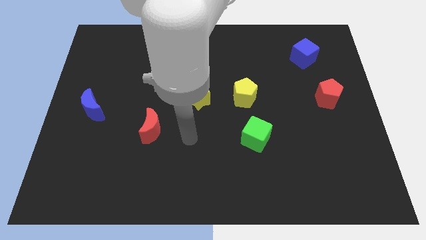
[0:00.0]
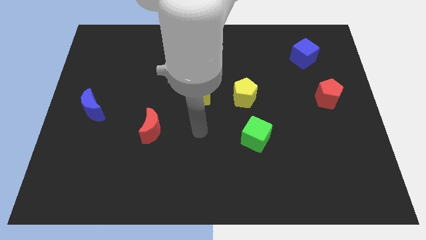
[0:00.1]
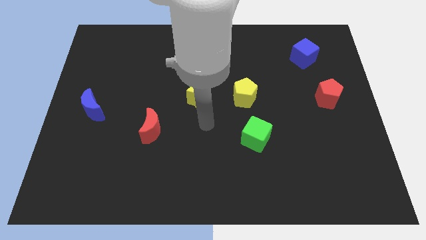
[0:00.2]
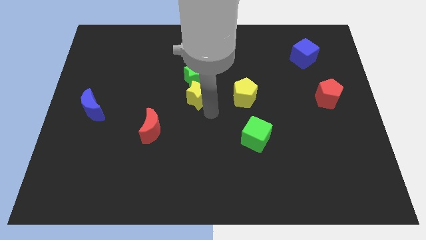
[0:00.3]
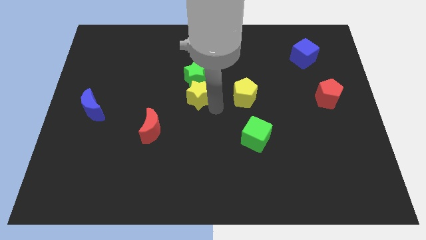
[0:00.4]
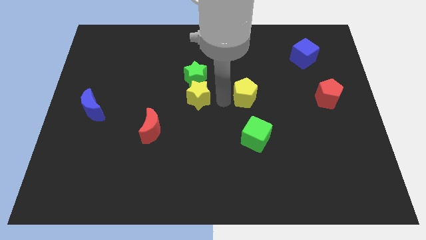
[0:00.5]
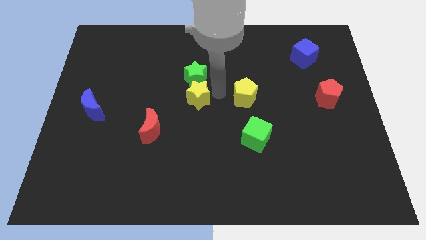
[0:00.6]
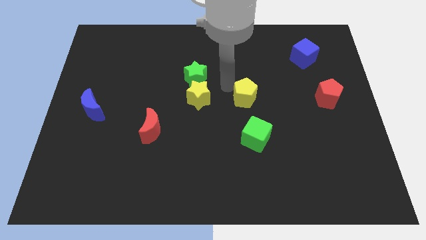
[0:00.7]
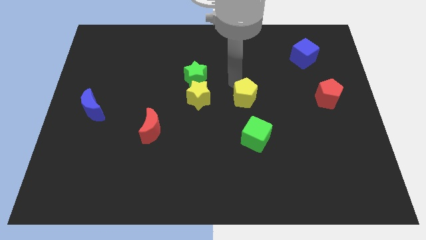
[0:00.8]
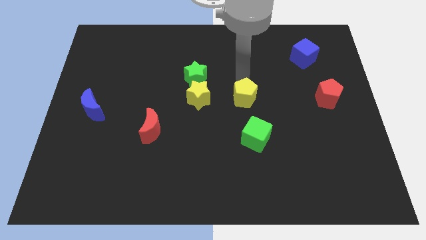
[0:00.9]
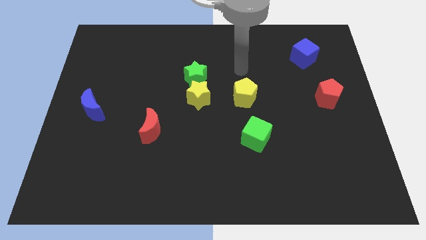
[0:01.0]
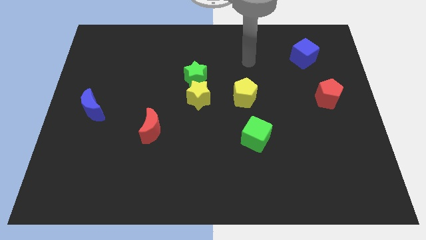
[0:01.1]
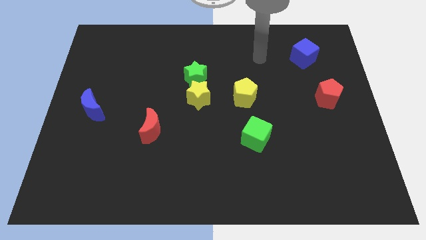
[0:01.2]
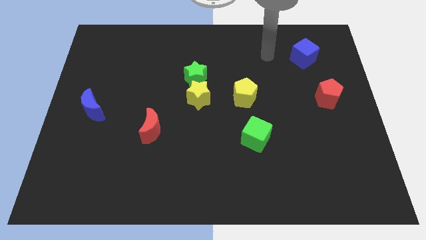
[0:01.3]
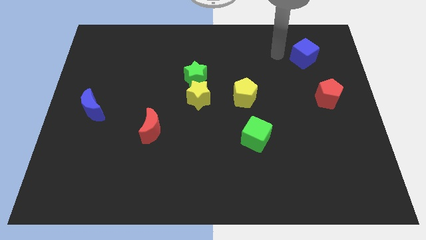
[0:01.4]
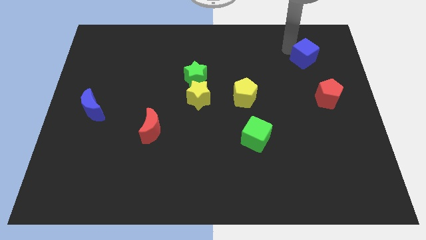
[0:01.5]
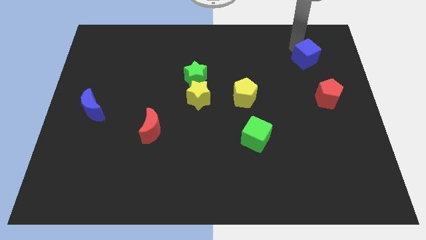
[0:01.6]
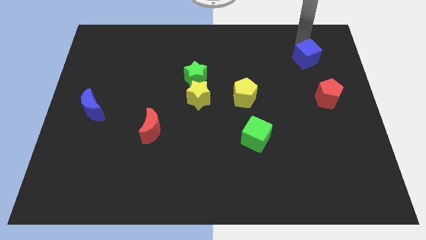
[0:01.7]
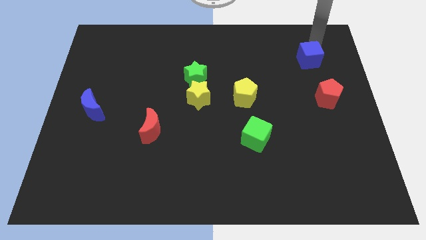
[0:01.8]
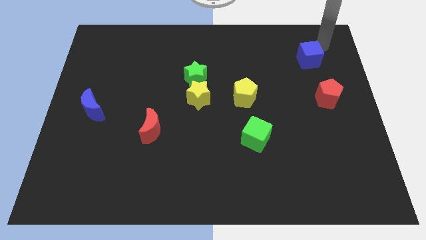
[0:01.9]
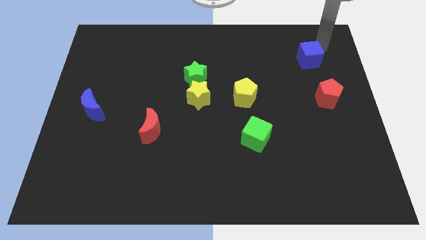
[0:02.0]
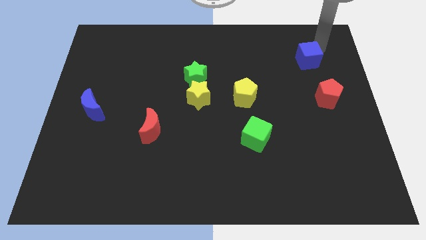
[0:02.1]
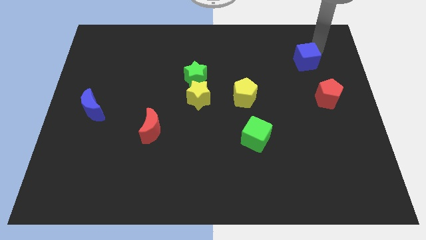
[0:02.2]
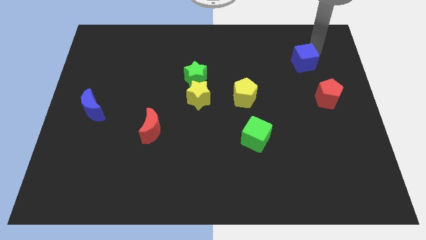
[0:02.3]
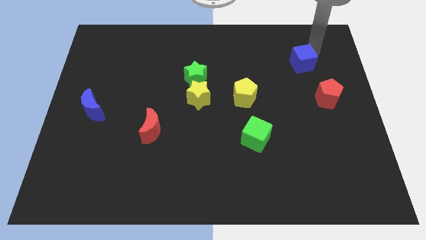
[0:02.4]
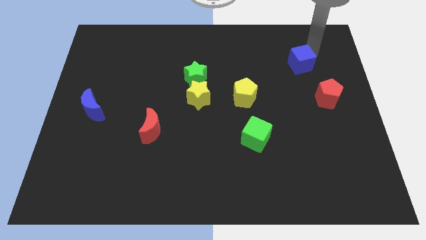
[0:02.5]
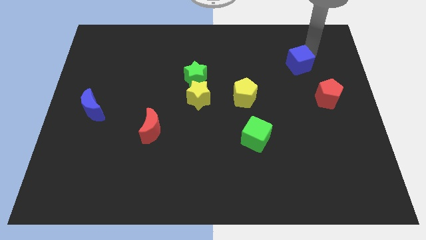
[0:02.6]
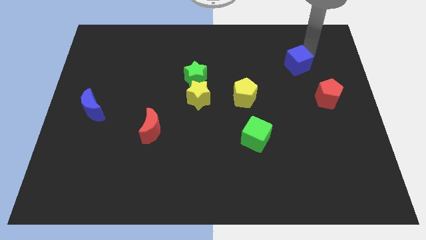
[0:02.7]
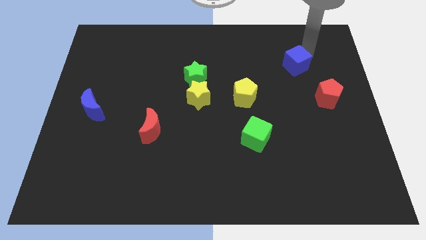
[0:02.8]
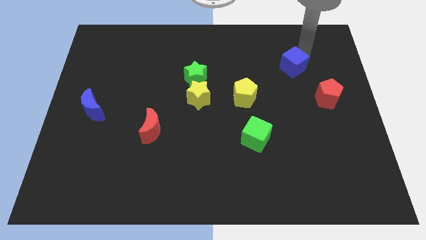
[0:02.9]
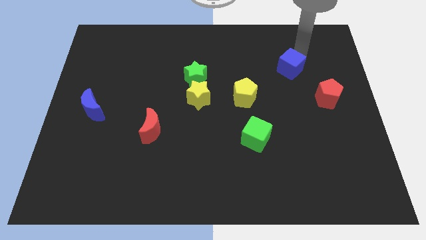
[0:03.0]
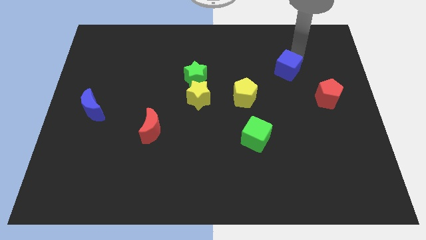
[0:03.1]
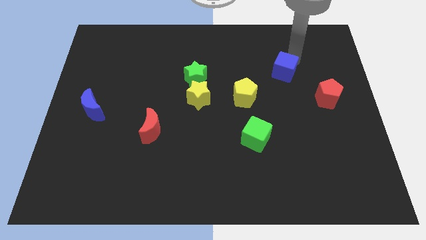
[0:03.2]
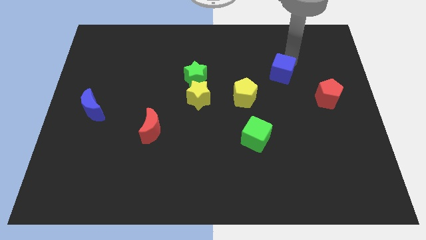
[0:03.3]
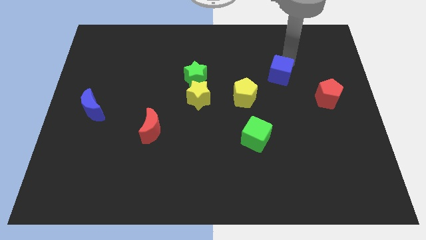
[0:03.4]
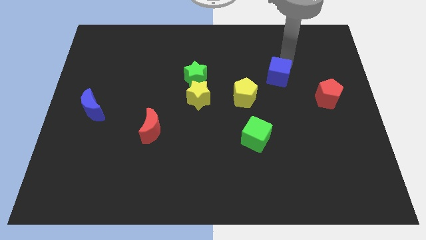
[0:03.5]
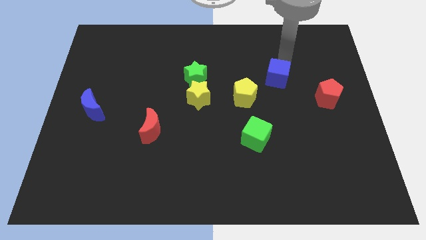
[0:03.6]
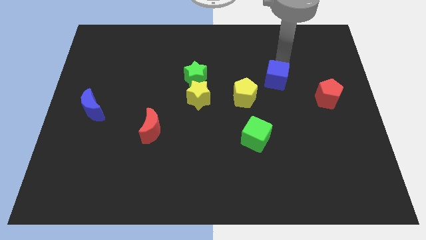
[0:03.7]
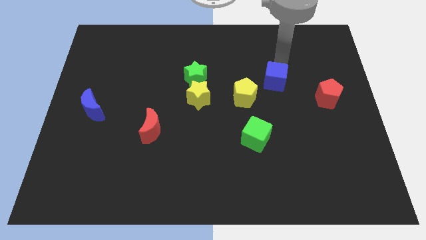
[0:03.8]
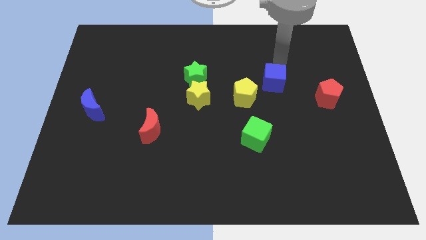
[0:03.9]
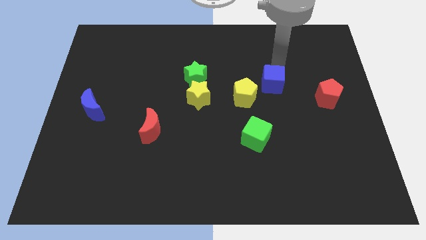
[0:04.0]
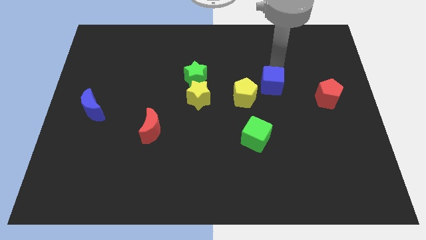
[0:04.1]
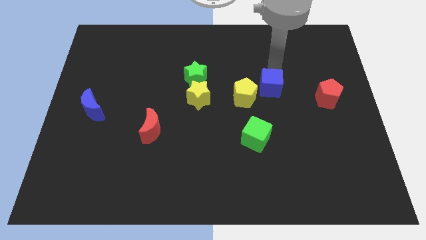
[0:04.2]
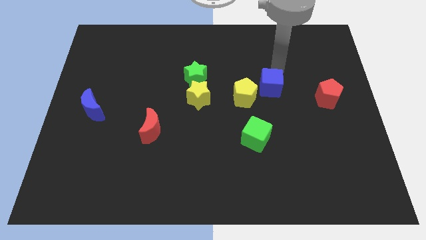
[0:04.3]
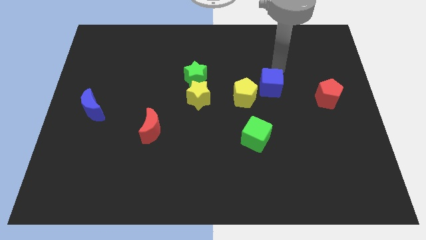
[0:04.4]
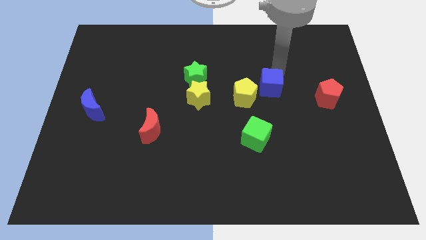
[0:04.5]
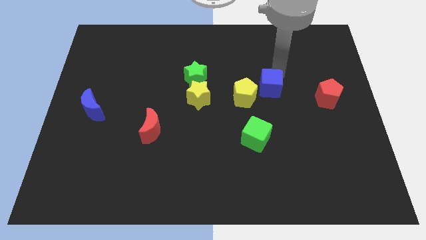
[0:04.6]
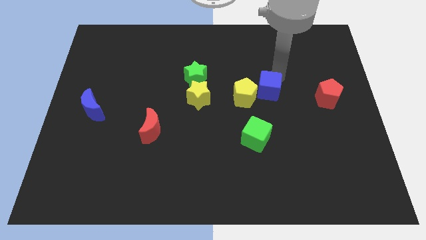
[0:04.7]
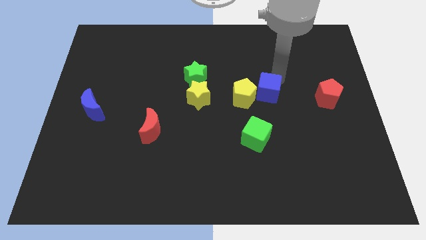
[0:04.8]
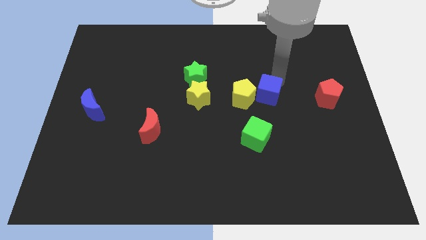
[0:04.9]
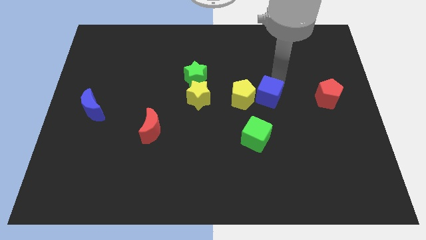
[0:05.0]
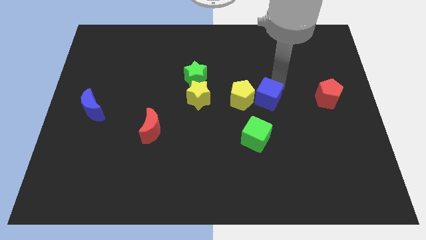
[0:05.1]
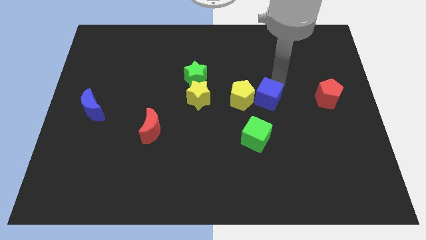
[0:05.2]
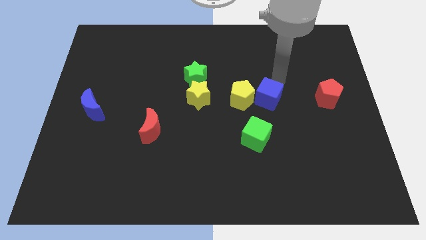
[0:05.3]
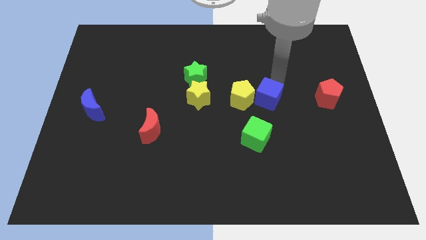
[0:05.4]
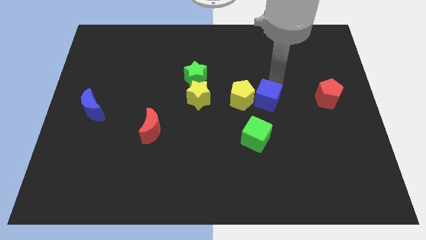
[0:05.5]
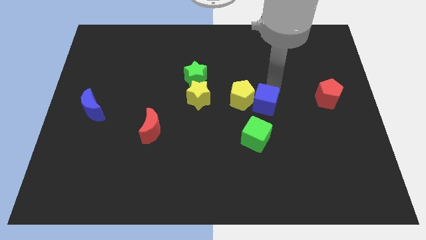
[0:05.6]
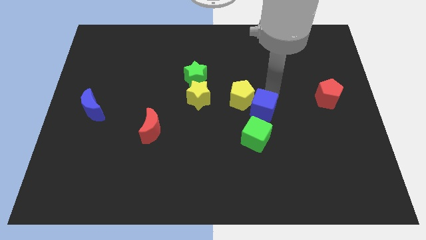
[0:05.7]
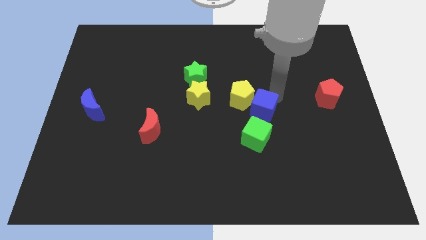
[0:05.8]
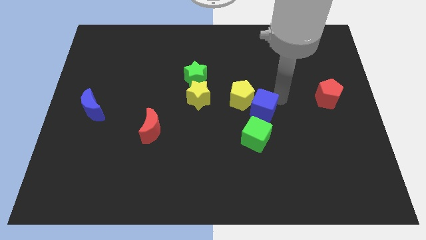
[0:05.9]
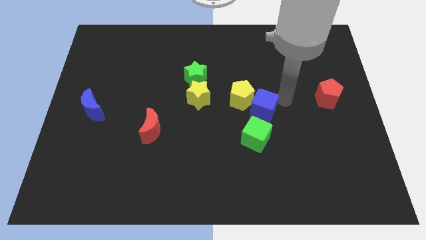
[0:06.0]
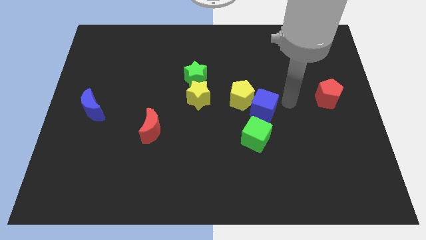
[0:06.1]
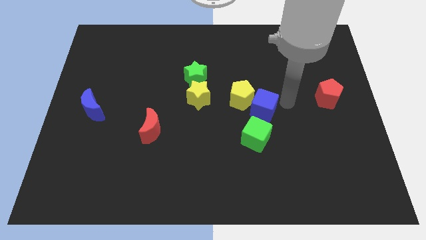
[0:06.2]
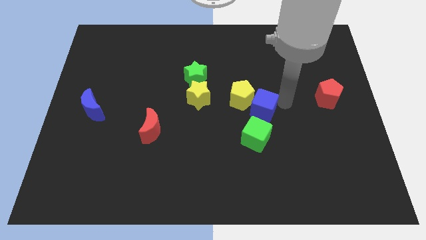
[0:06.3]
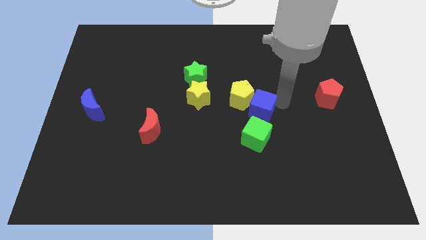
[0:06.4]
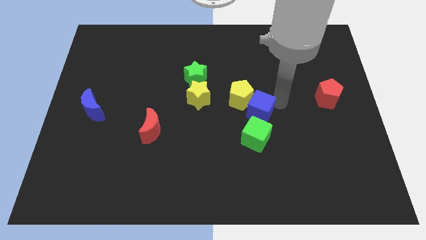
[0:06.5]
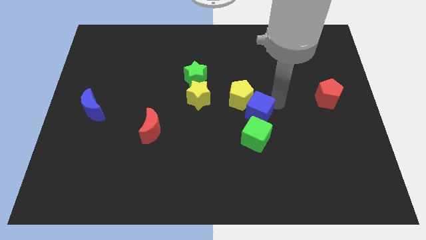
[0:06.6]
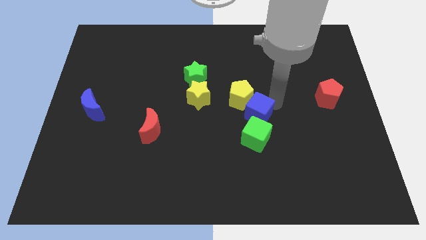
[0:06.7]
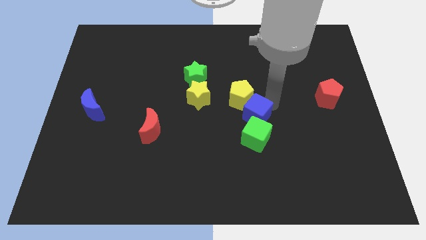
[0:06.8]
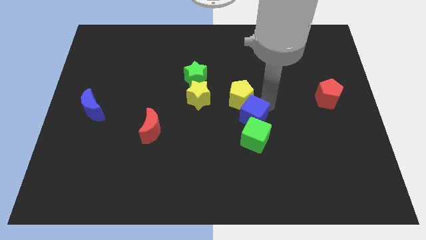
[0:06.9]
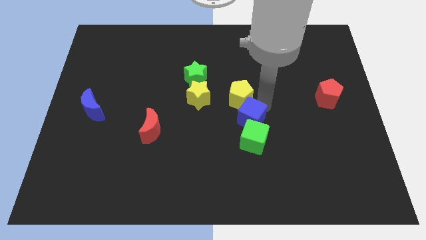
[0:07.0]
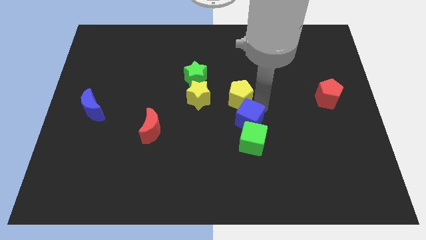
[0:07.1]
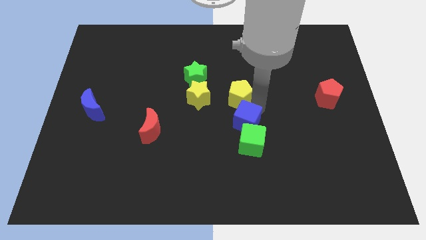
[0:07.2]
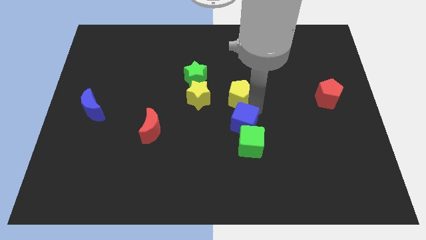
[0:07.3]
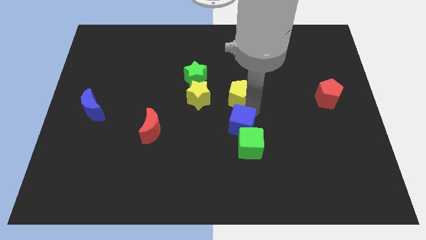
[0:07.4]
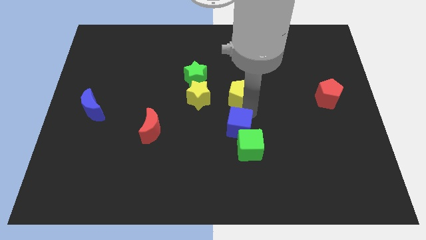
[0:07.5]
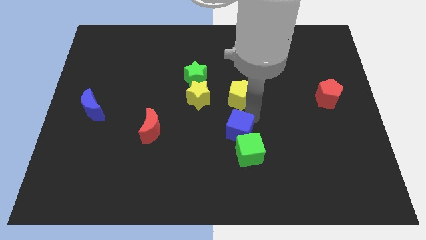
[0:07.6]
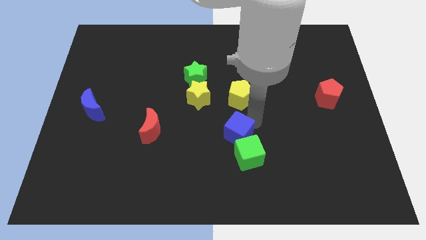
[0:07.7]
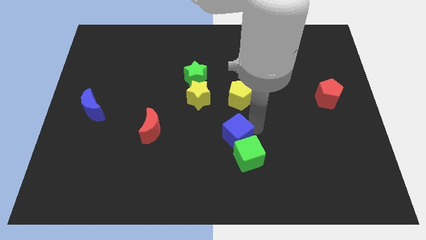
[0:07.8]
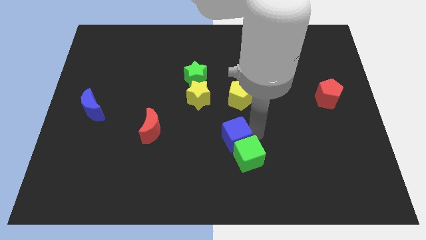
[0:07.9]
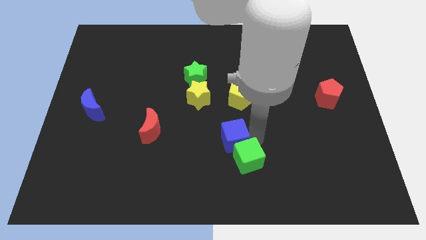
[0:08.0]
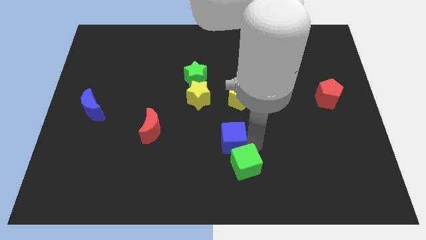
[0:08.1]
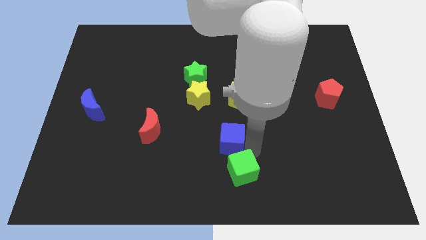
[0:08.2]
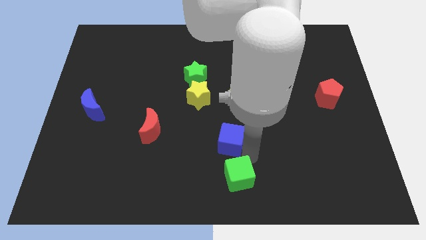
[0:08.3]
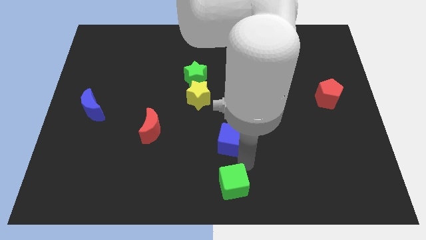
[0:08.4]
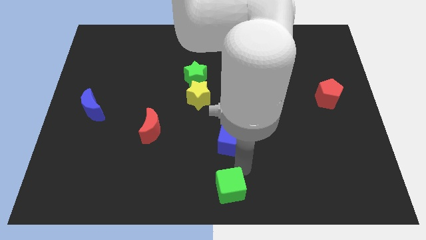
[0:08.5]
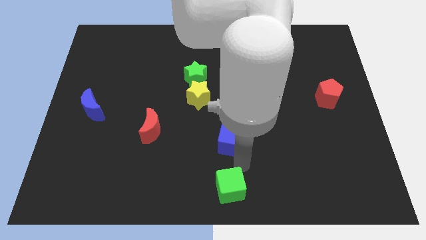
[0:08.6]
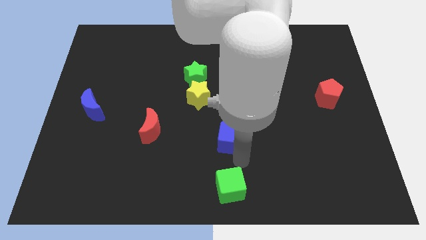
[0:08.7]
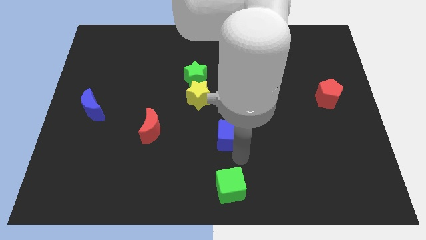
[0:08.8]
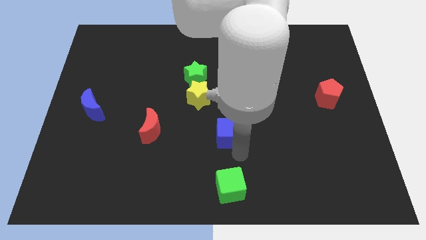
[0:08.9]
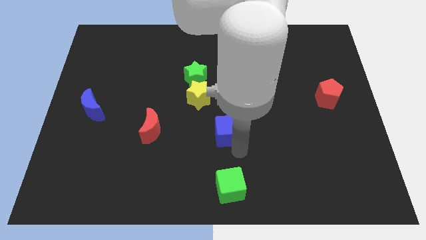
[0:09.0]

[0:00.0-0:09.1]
move the blue cube to the bottom left side of the yellow pentagon
